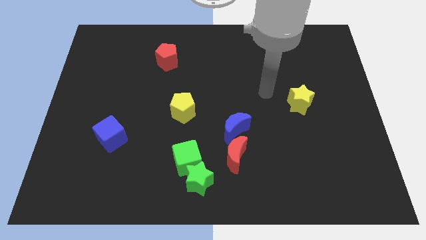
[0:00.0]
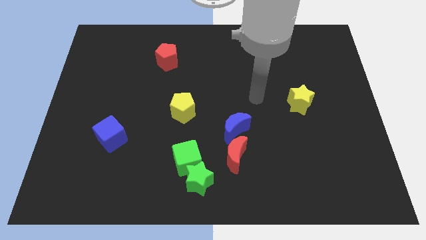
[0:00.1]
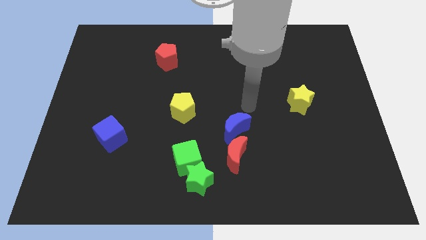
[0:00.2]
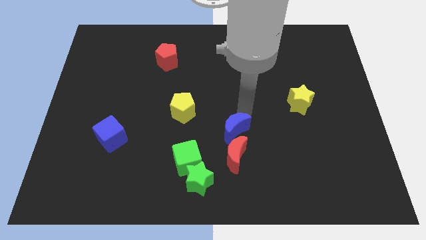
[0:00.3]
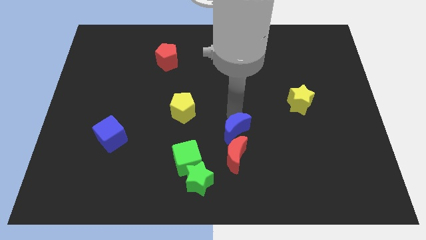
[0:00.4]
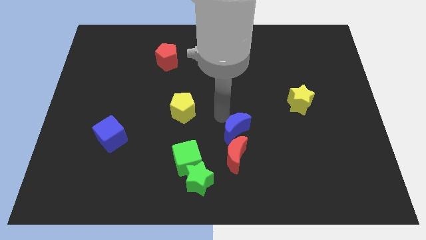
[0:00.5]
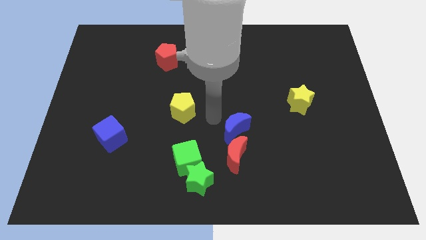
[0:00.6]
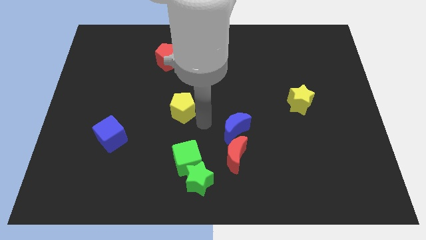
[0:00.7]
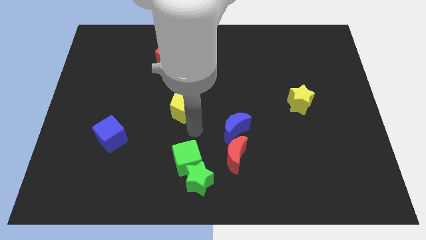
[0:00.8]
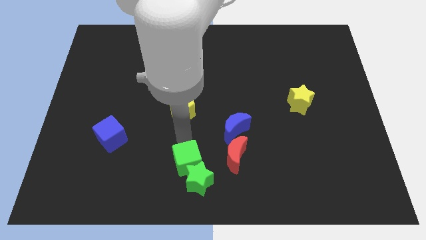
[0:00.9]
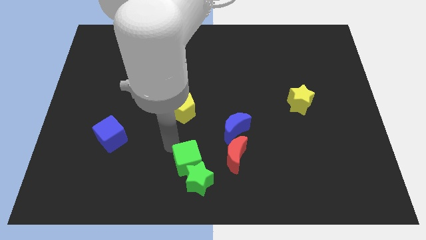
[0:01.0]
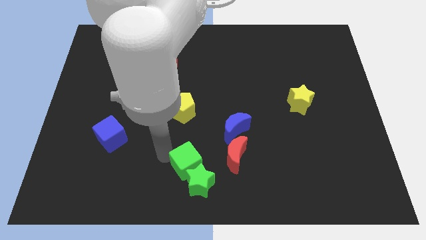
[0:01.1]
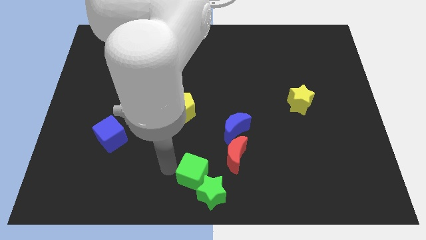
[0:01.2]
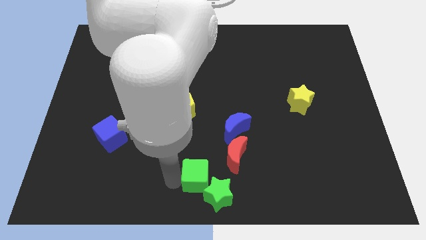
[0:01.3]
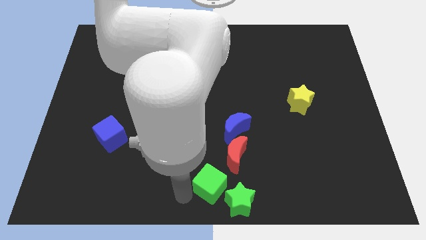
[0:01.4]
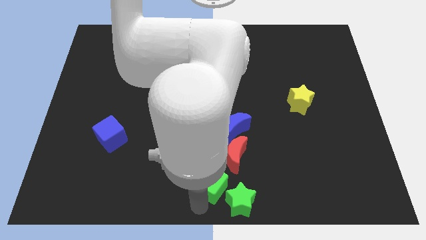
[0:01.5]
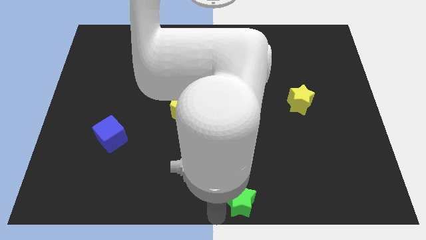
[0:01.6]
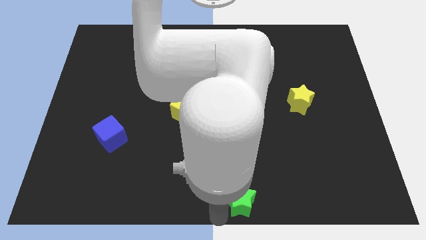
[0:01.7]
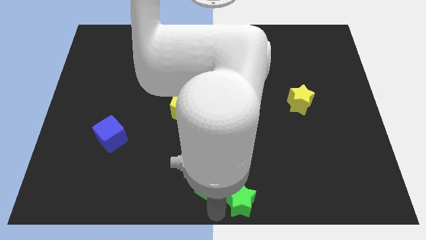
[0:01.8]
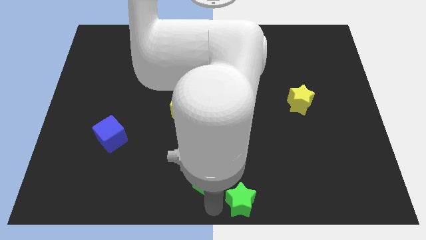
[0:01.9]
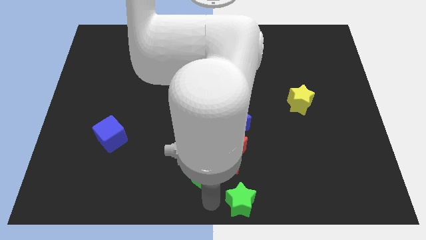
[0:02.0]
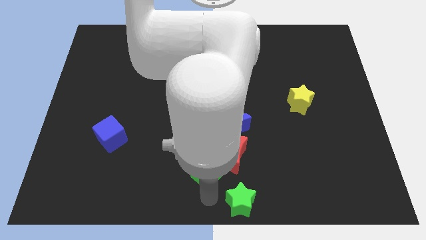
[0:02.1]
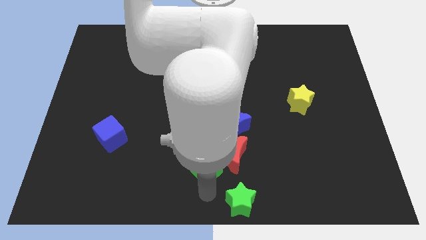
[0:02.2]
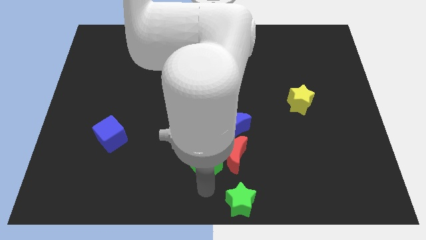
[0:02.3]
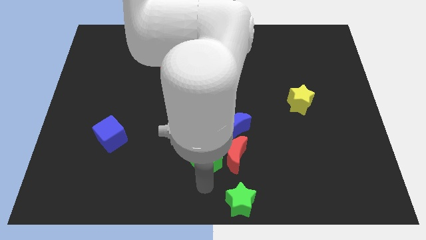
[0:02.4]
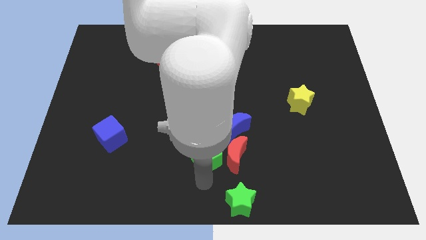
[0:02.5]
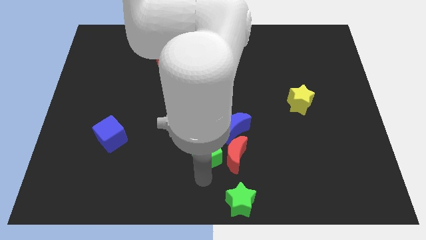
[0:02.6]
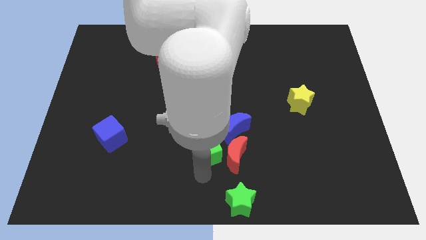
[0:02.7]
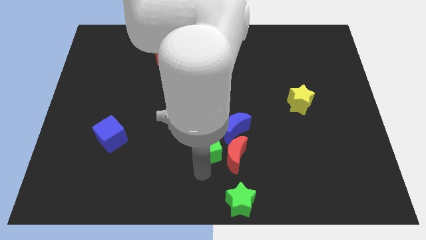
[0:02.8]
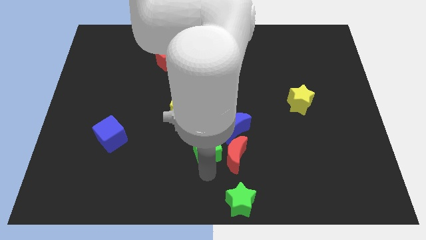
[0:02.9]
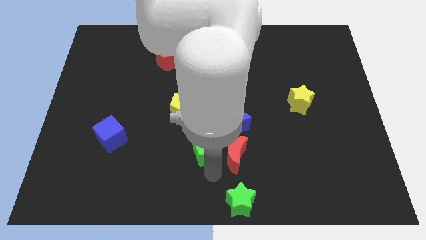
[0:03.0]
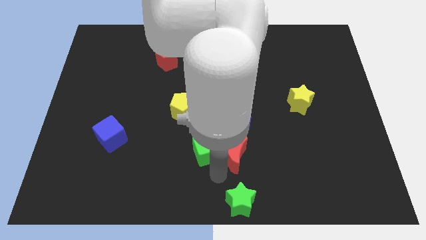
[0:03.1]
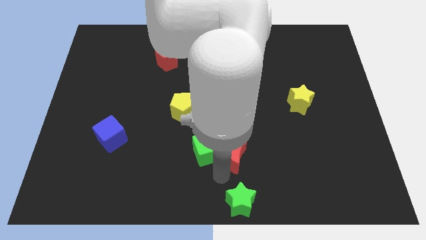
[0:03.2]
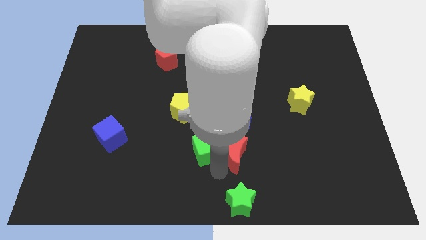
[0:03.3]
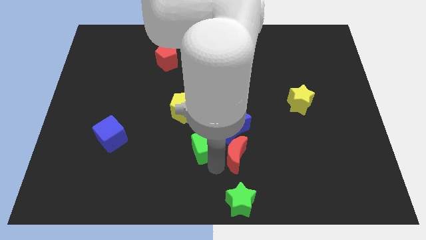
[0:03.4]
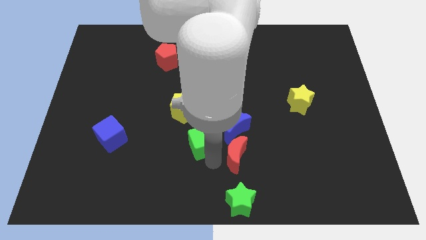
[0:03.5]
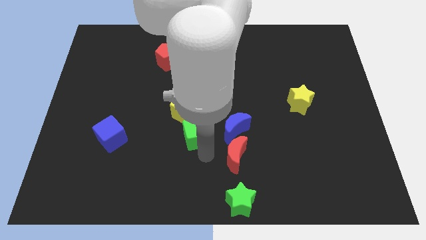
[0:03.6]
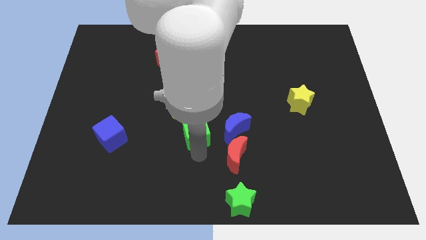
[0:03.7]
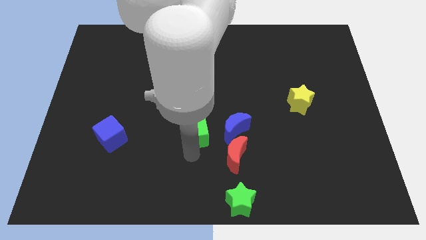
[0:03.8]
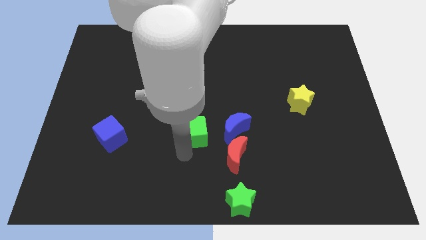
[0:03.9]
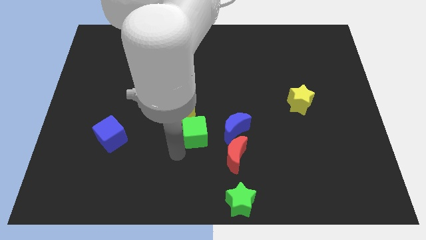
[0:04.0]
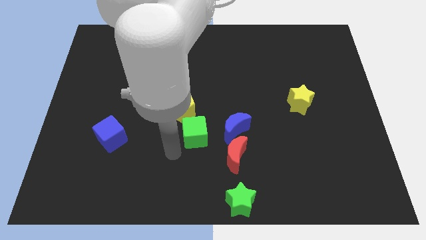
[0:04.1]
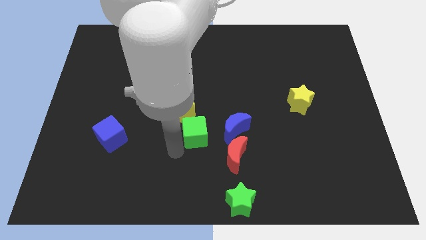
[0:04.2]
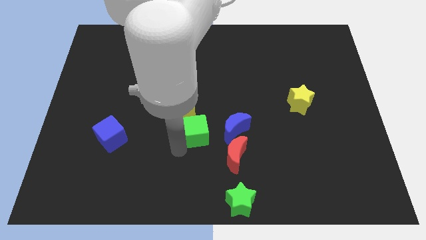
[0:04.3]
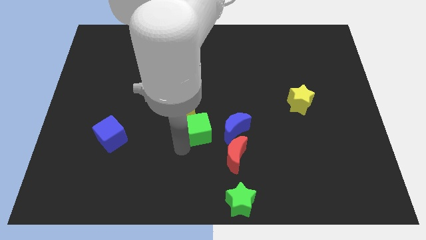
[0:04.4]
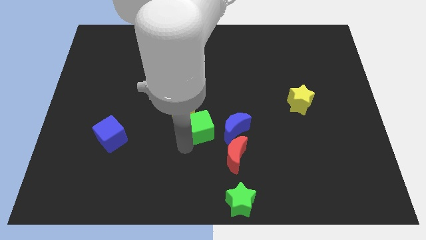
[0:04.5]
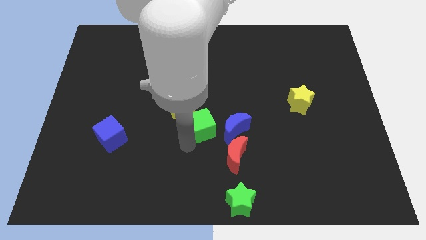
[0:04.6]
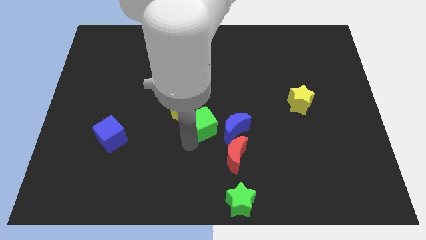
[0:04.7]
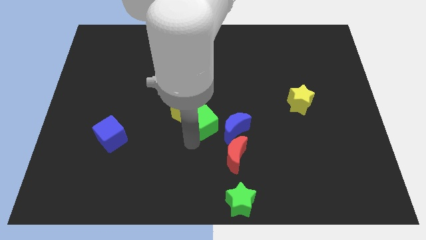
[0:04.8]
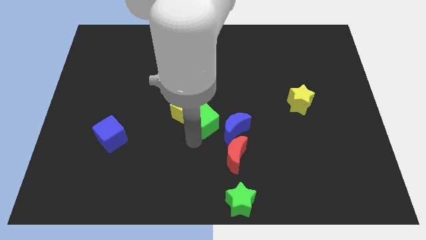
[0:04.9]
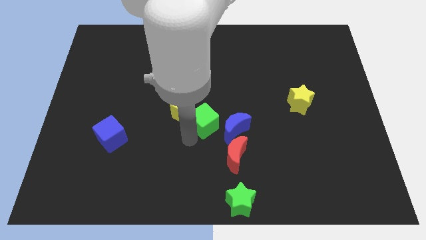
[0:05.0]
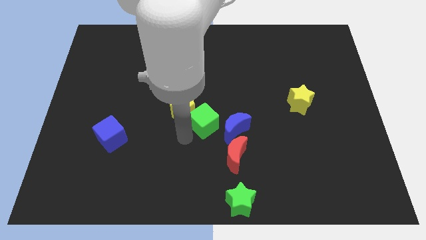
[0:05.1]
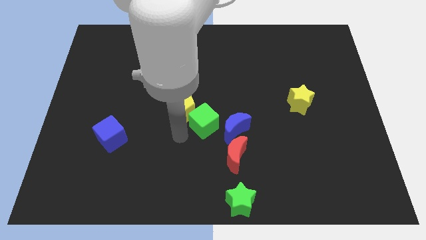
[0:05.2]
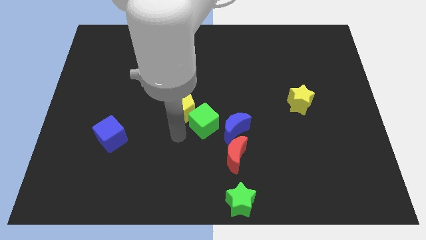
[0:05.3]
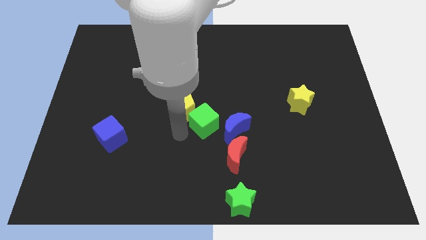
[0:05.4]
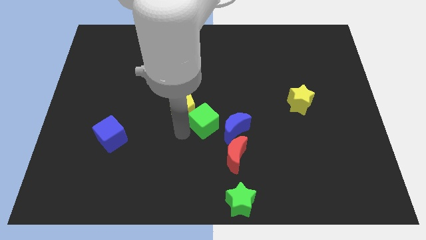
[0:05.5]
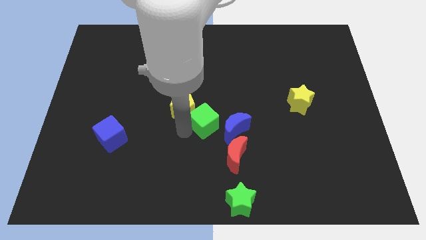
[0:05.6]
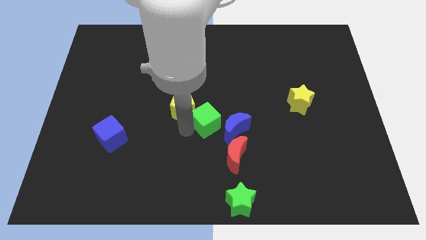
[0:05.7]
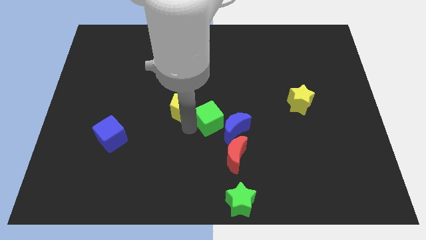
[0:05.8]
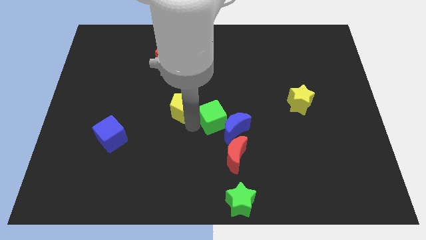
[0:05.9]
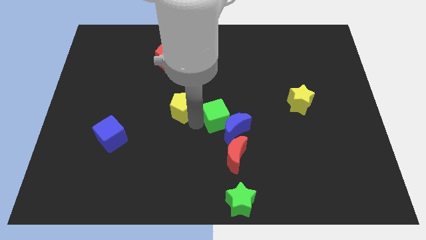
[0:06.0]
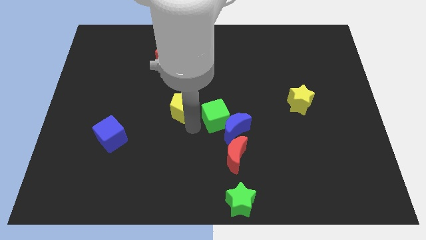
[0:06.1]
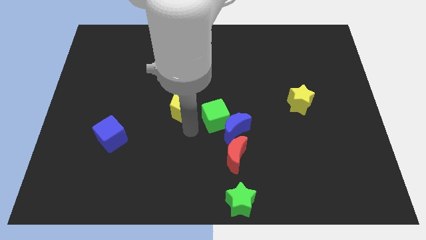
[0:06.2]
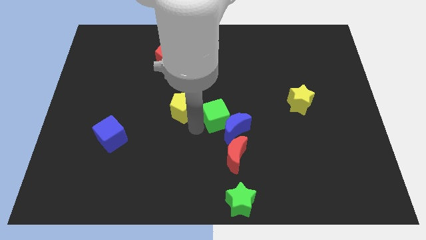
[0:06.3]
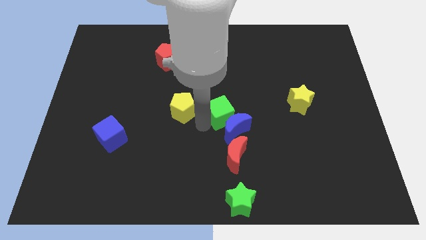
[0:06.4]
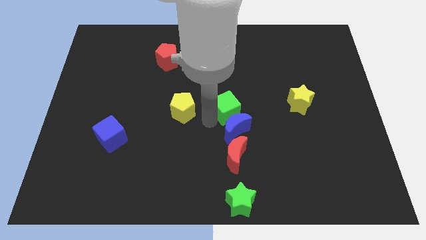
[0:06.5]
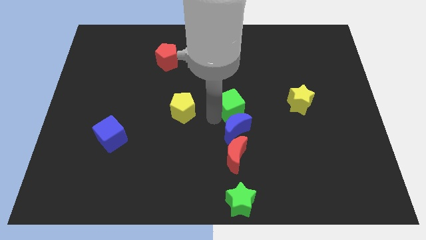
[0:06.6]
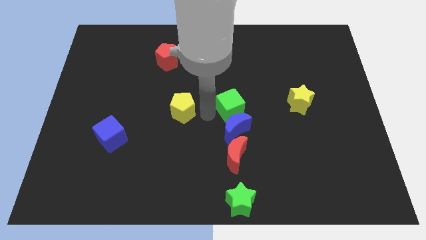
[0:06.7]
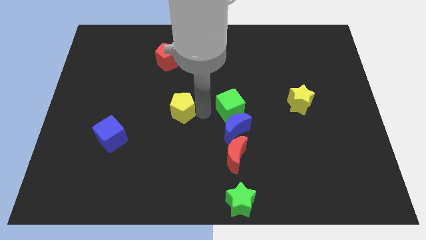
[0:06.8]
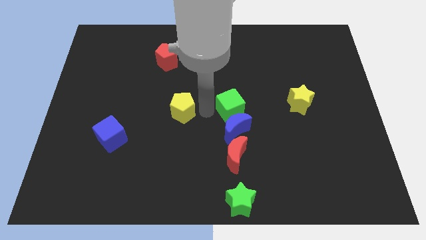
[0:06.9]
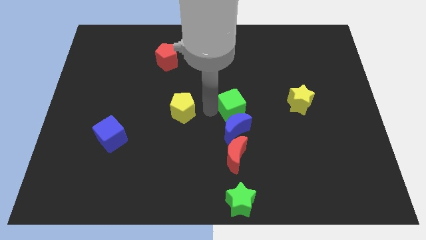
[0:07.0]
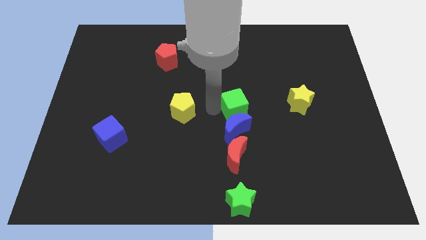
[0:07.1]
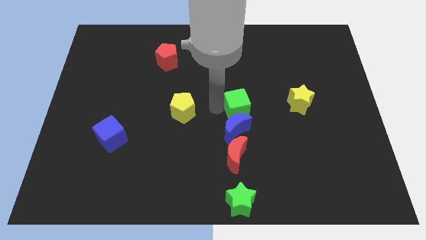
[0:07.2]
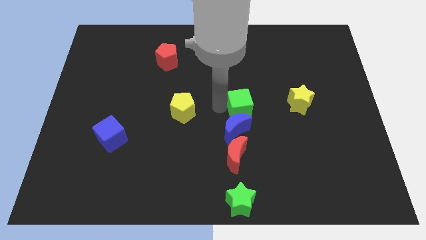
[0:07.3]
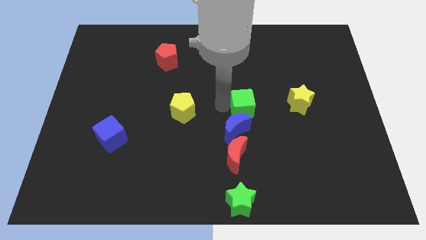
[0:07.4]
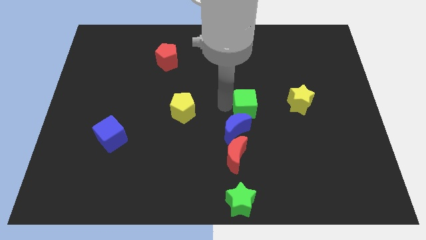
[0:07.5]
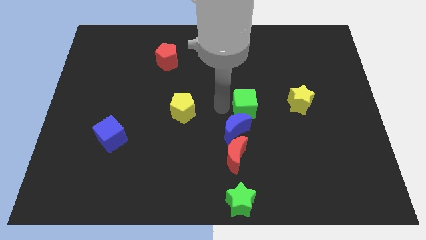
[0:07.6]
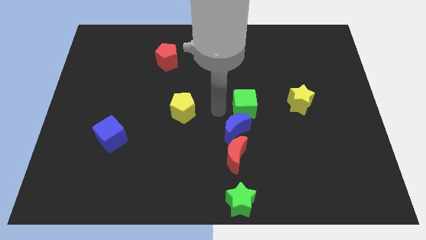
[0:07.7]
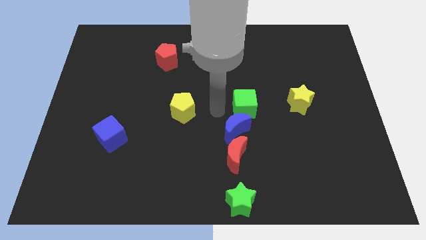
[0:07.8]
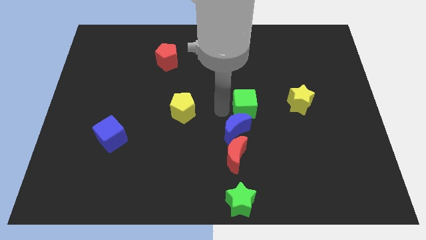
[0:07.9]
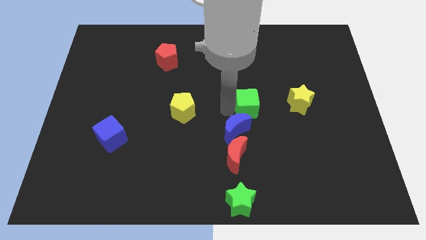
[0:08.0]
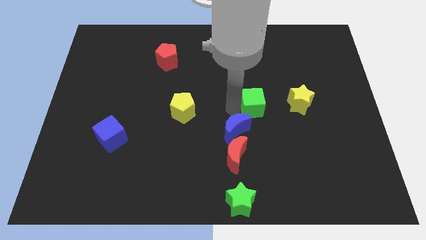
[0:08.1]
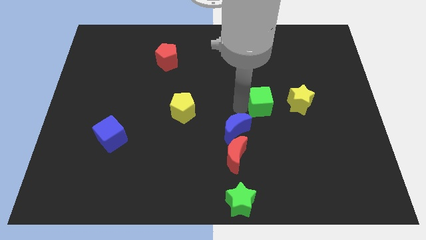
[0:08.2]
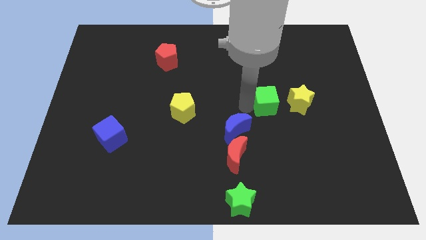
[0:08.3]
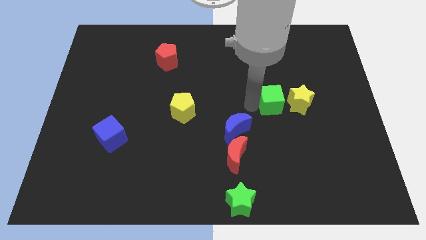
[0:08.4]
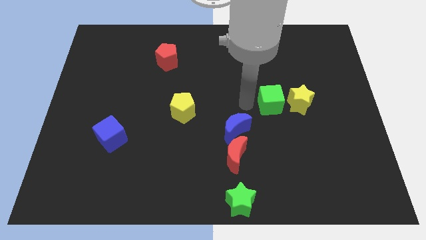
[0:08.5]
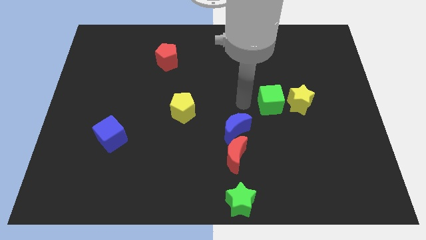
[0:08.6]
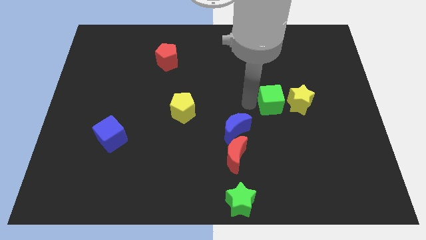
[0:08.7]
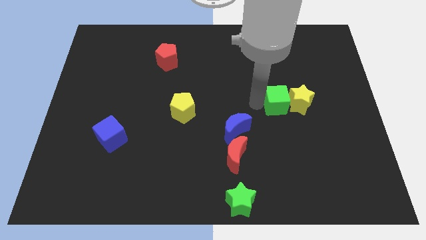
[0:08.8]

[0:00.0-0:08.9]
move the green cube to the yellow star
